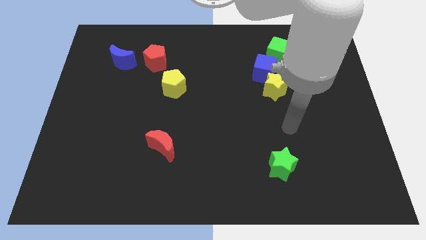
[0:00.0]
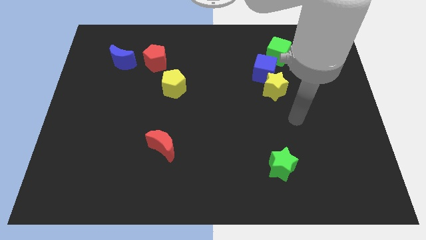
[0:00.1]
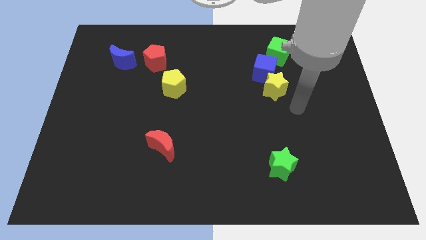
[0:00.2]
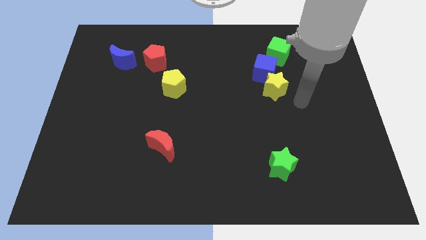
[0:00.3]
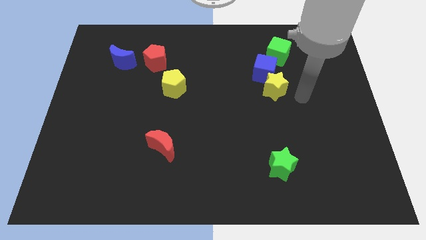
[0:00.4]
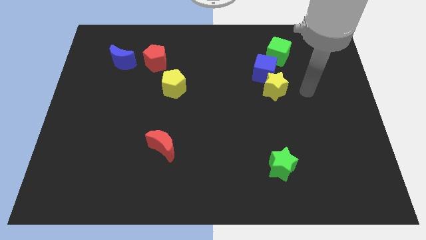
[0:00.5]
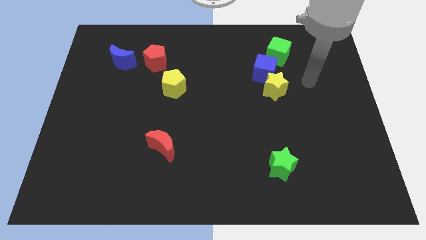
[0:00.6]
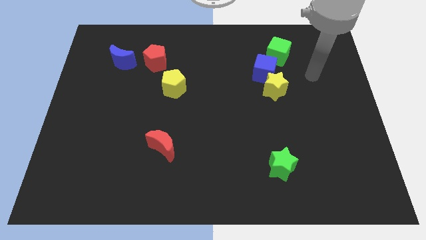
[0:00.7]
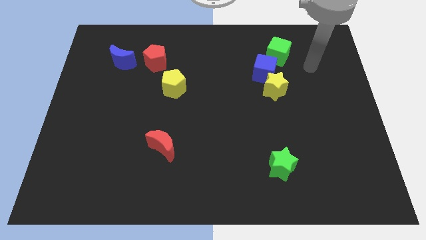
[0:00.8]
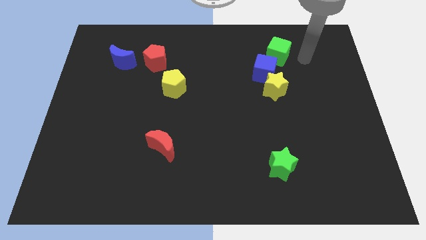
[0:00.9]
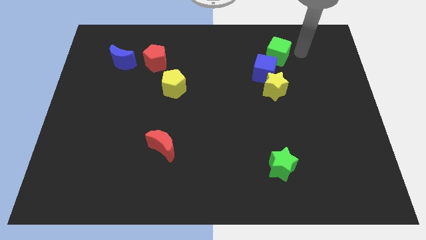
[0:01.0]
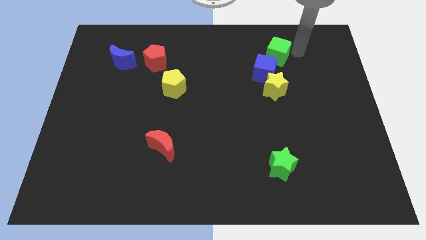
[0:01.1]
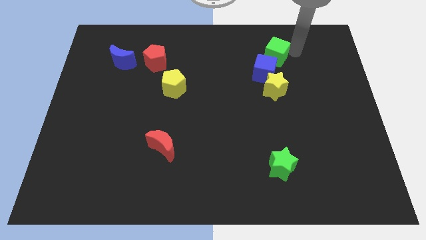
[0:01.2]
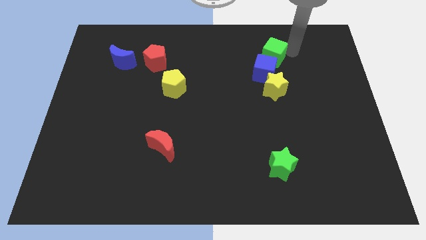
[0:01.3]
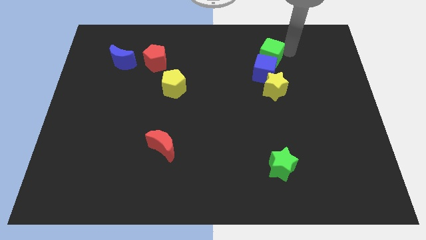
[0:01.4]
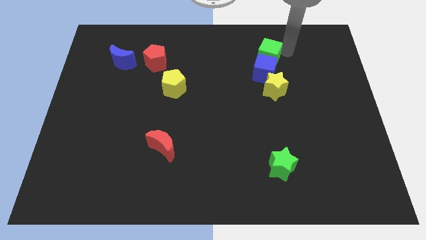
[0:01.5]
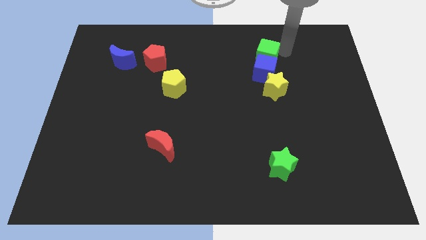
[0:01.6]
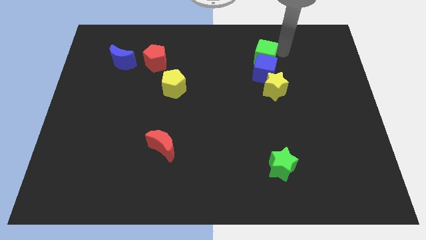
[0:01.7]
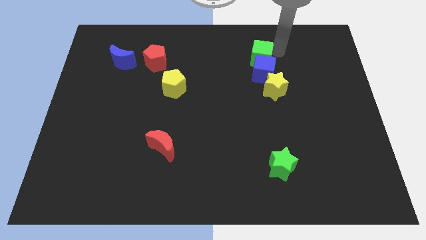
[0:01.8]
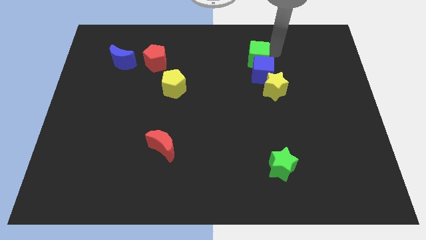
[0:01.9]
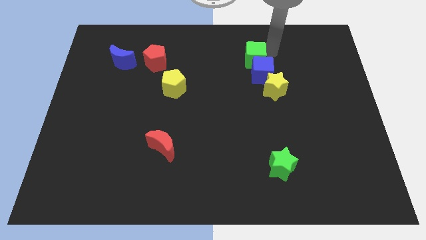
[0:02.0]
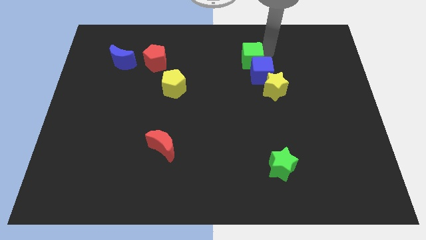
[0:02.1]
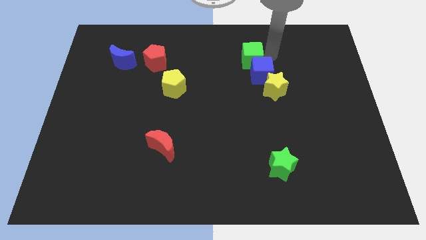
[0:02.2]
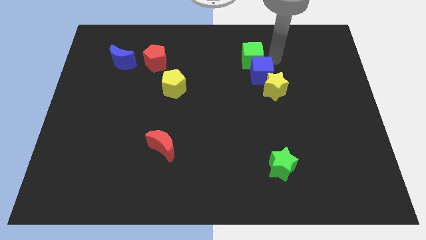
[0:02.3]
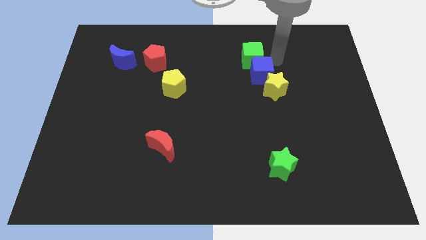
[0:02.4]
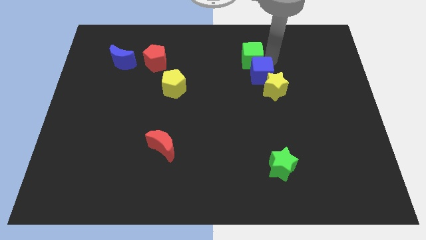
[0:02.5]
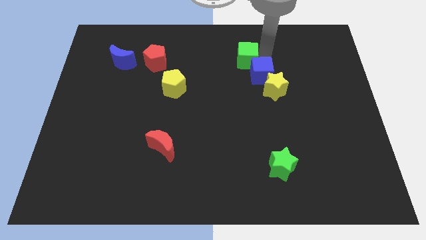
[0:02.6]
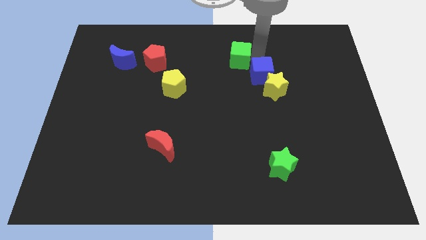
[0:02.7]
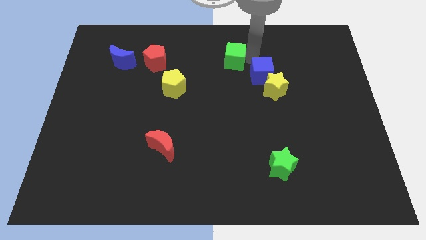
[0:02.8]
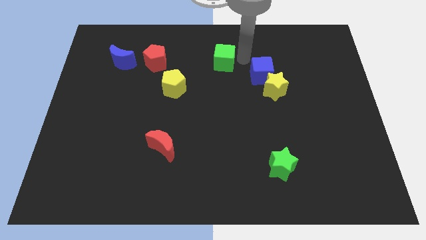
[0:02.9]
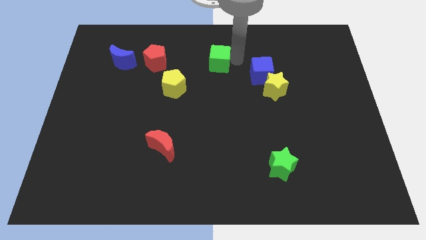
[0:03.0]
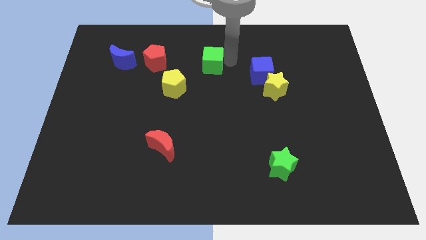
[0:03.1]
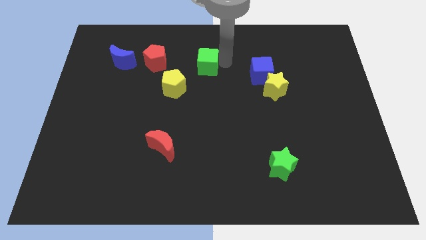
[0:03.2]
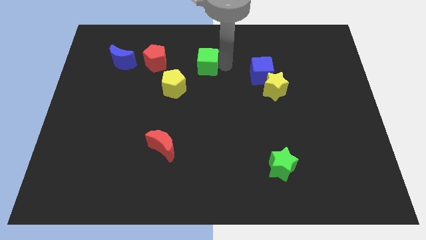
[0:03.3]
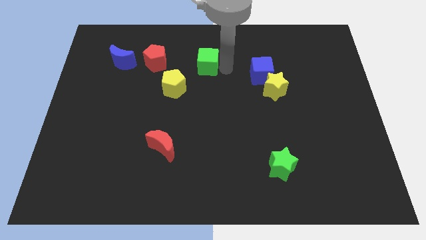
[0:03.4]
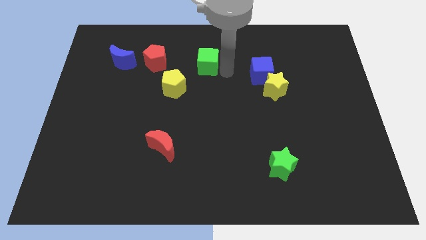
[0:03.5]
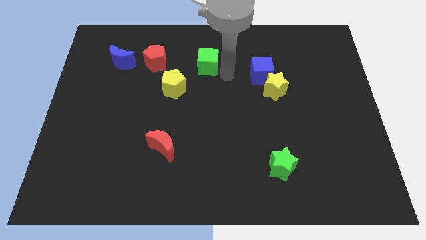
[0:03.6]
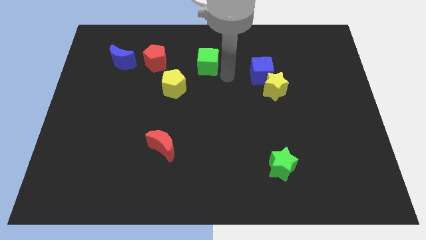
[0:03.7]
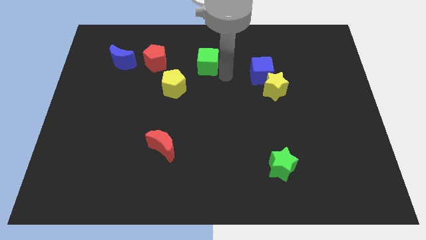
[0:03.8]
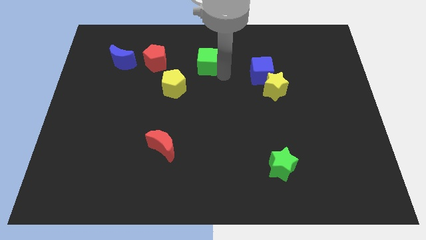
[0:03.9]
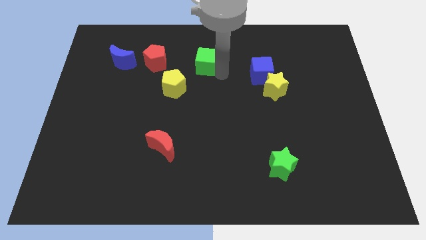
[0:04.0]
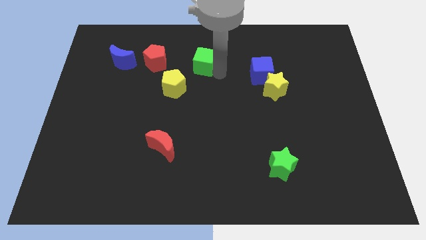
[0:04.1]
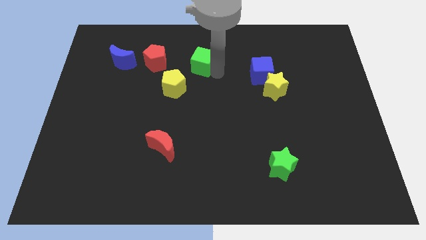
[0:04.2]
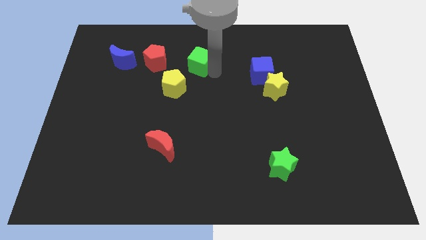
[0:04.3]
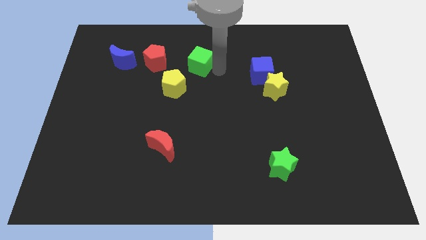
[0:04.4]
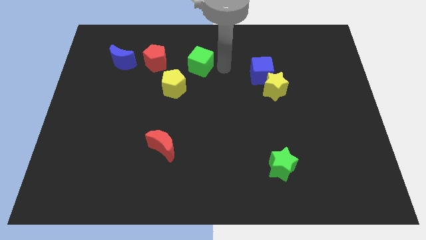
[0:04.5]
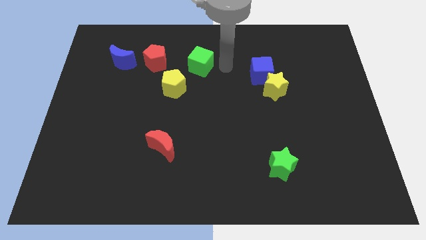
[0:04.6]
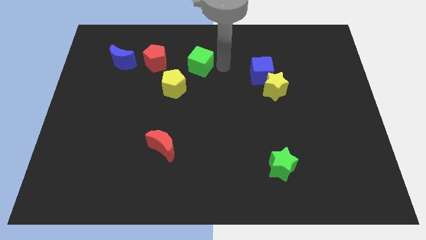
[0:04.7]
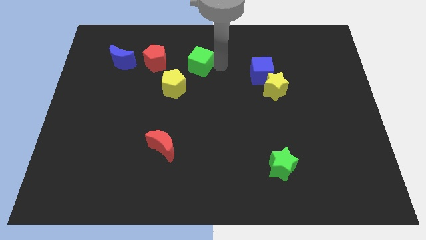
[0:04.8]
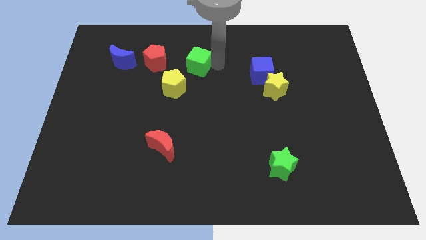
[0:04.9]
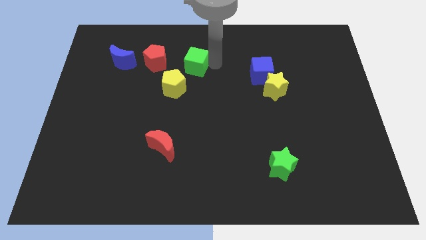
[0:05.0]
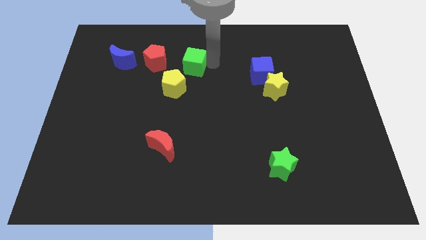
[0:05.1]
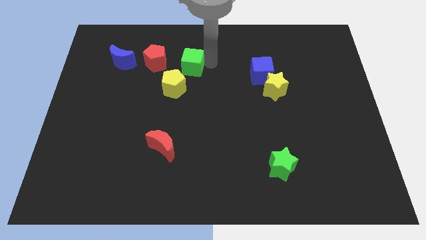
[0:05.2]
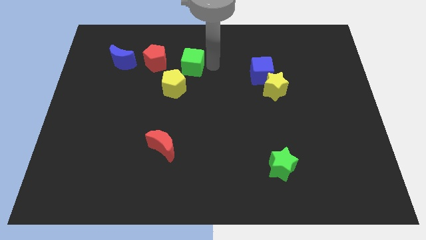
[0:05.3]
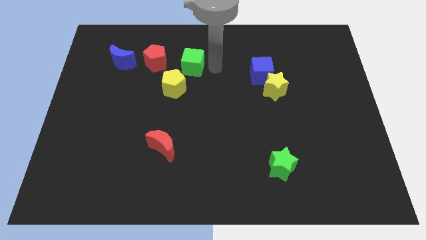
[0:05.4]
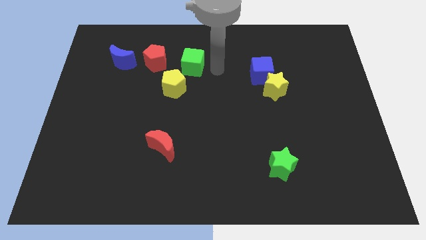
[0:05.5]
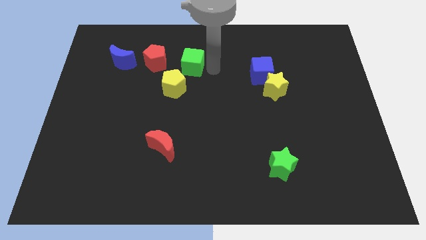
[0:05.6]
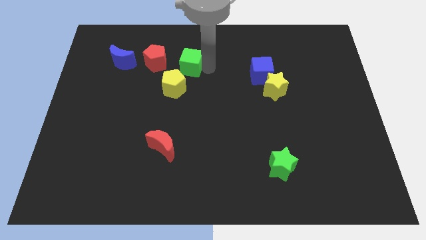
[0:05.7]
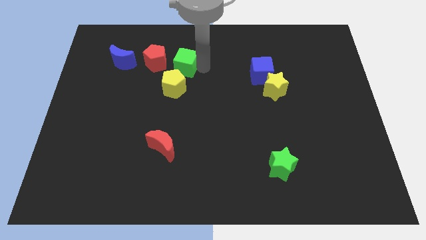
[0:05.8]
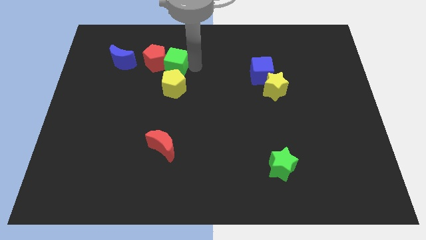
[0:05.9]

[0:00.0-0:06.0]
move the green cube towards the red pentagon

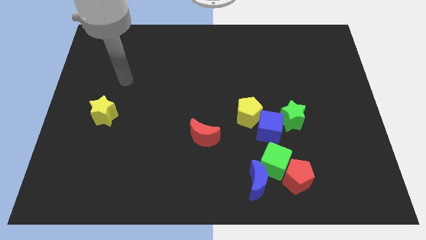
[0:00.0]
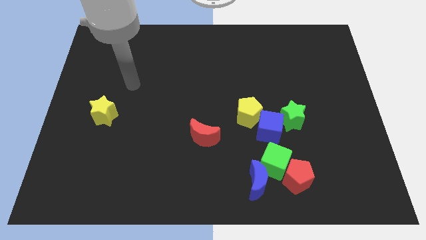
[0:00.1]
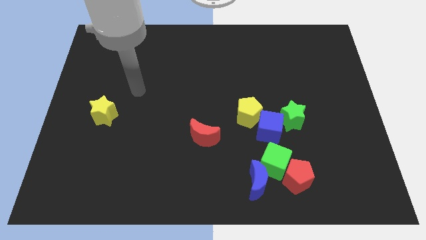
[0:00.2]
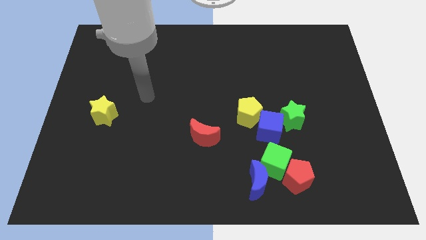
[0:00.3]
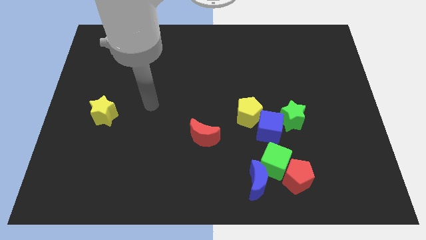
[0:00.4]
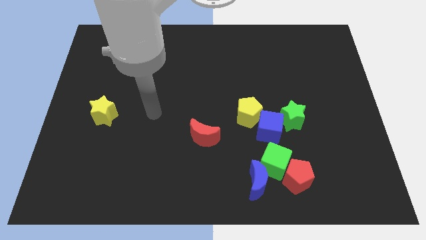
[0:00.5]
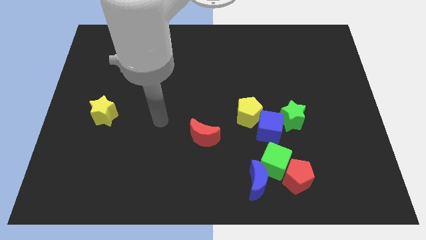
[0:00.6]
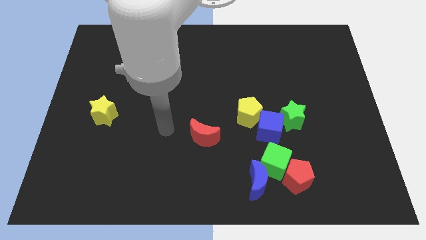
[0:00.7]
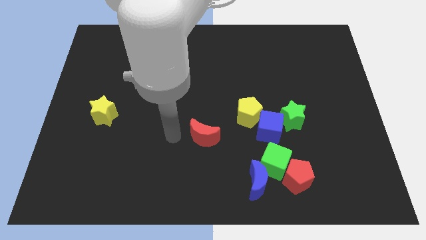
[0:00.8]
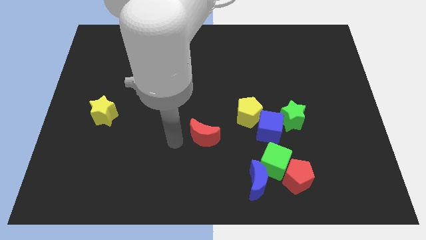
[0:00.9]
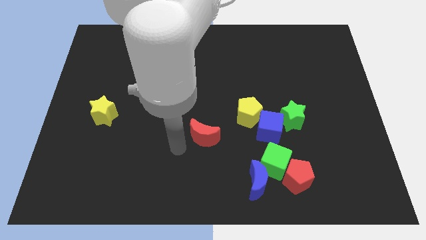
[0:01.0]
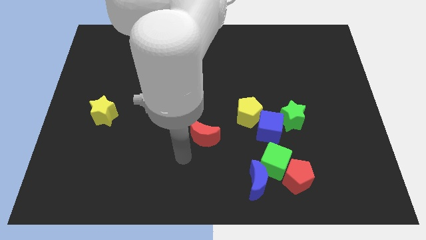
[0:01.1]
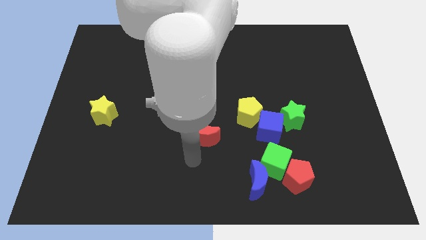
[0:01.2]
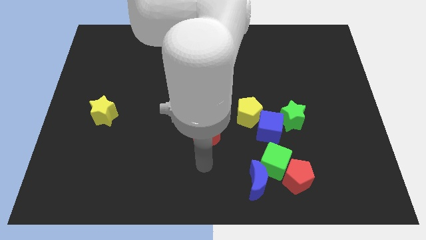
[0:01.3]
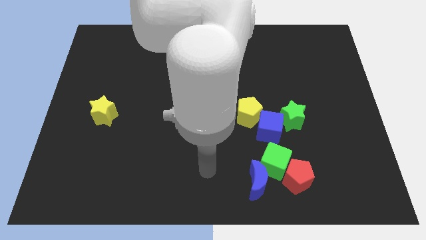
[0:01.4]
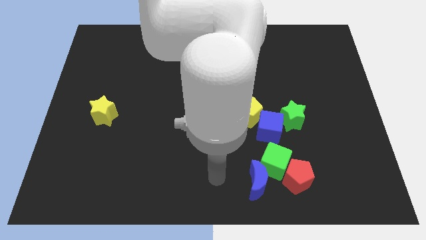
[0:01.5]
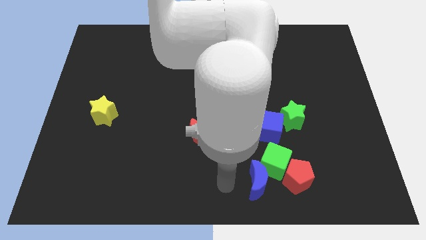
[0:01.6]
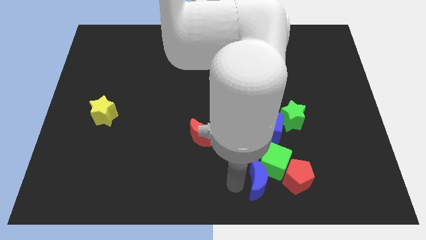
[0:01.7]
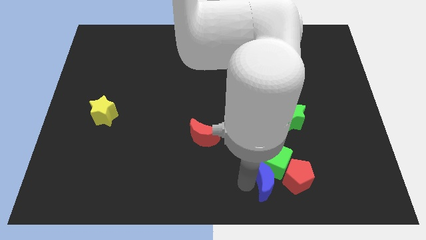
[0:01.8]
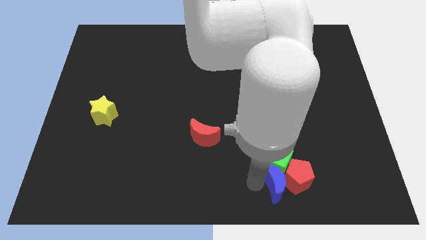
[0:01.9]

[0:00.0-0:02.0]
slide the blue moon next to the red pentagon
